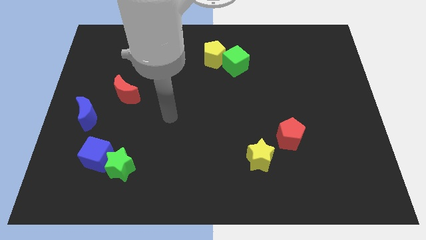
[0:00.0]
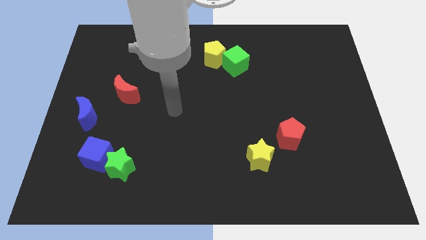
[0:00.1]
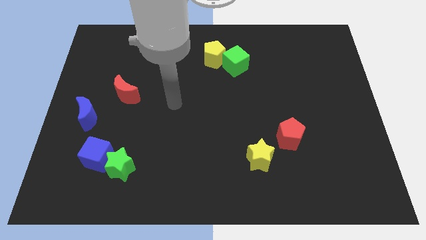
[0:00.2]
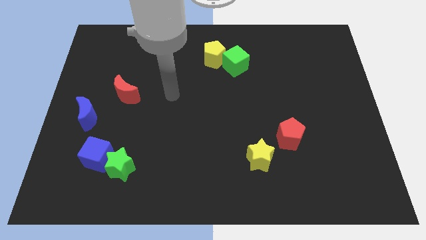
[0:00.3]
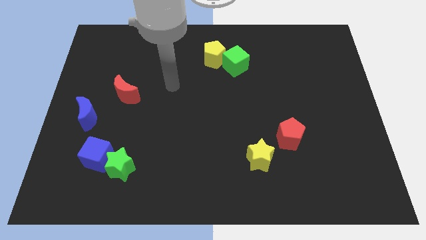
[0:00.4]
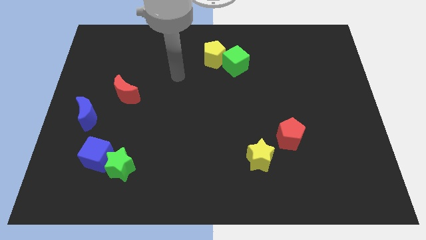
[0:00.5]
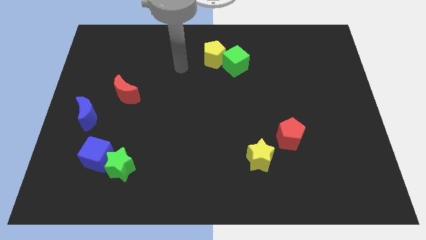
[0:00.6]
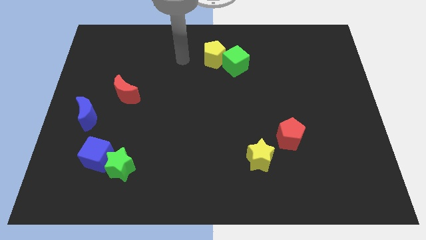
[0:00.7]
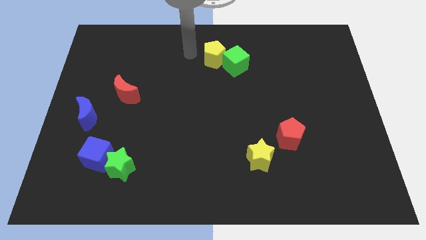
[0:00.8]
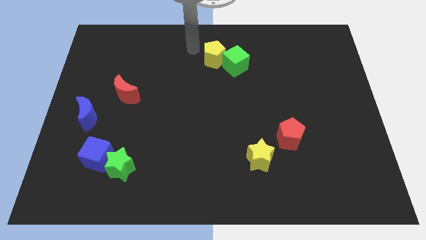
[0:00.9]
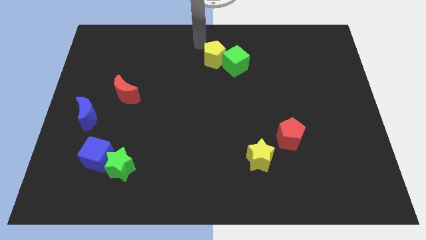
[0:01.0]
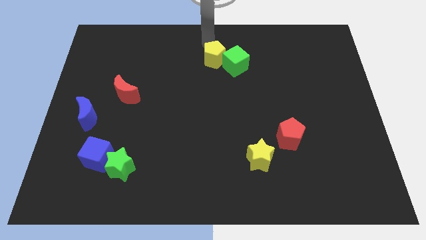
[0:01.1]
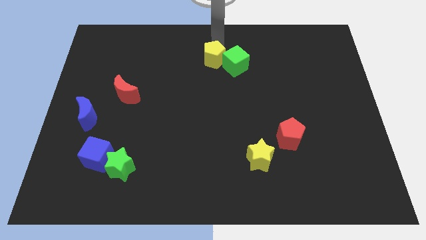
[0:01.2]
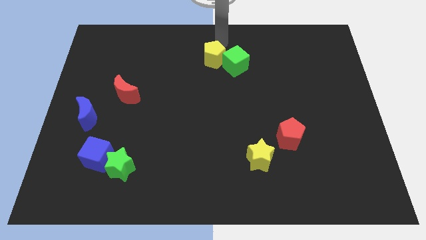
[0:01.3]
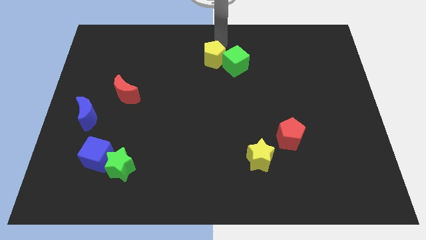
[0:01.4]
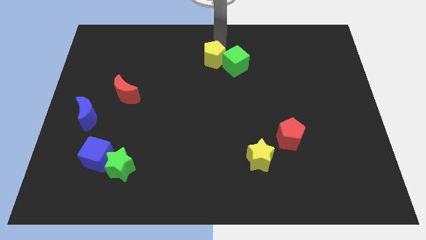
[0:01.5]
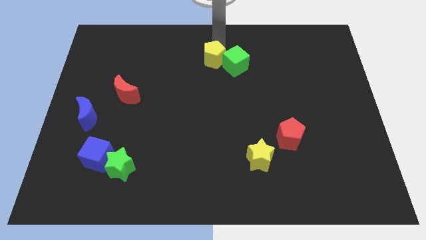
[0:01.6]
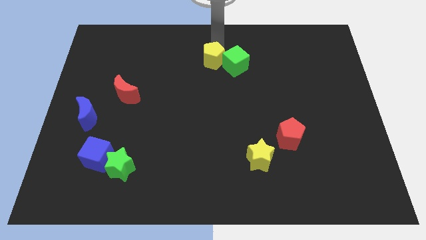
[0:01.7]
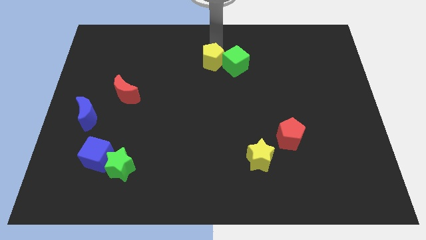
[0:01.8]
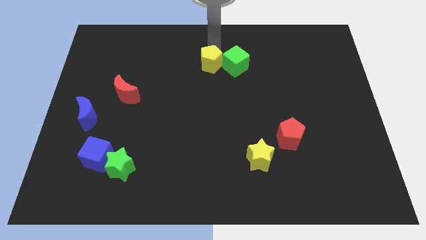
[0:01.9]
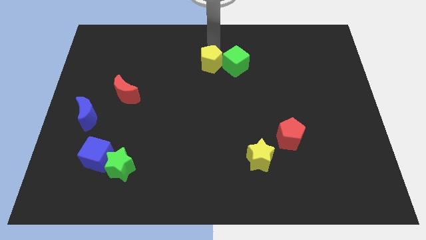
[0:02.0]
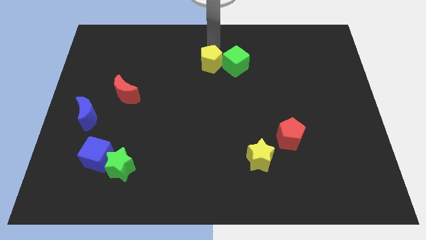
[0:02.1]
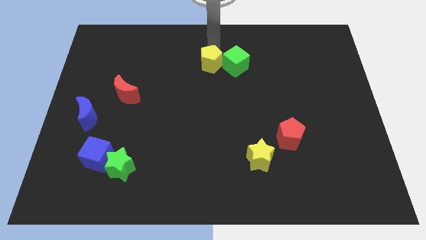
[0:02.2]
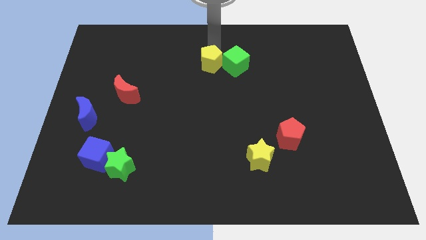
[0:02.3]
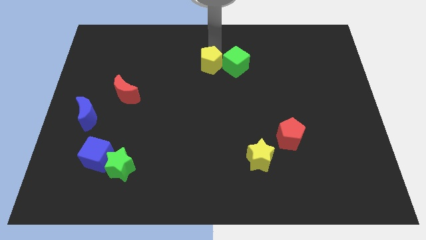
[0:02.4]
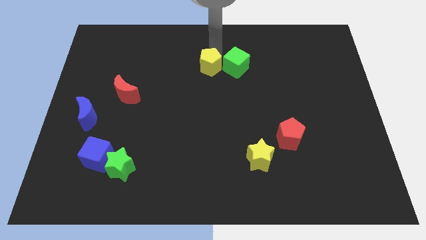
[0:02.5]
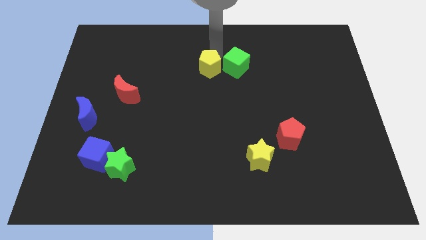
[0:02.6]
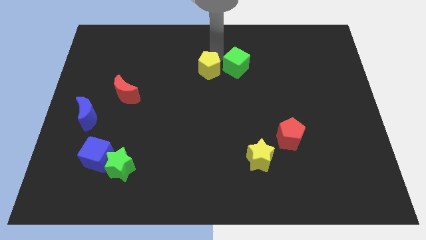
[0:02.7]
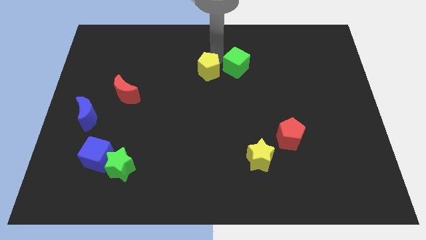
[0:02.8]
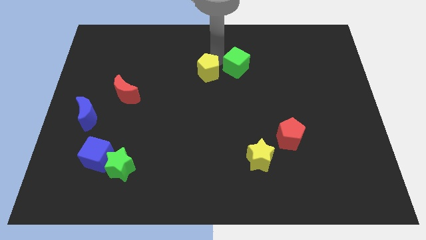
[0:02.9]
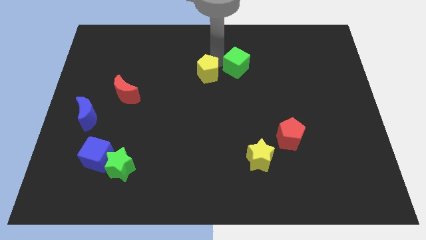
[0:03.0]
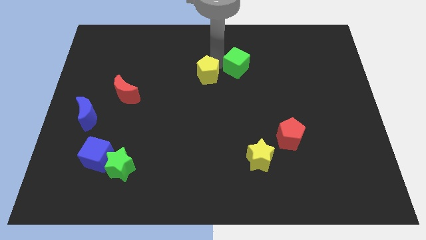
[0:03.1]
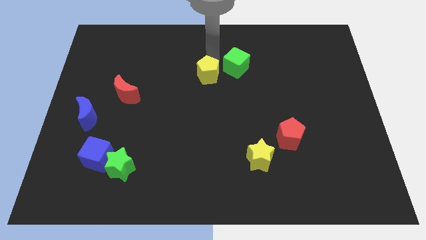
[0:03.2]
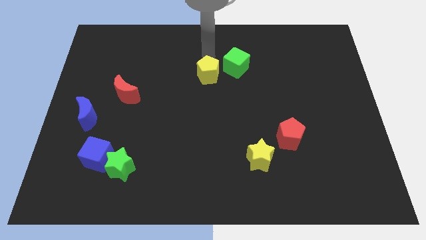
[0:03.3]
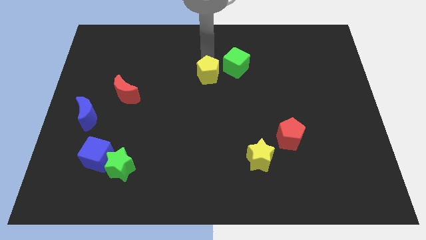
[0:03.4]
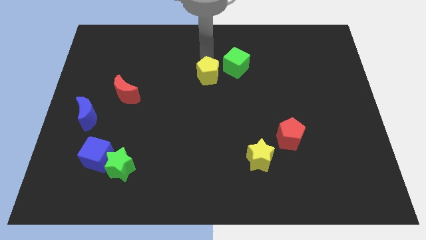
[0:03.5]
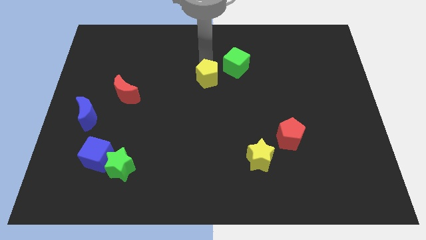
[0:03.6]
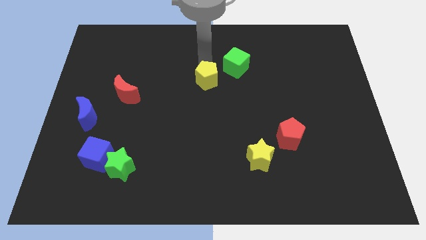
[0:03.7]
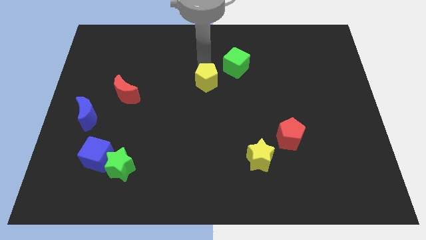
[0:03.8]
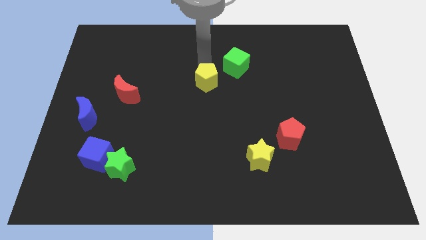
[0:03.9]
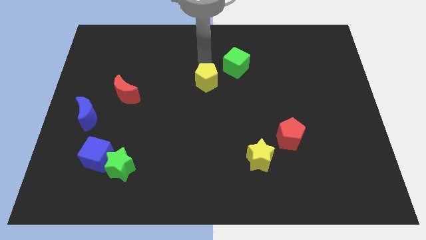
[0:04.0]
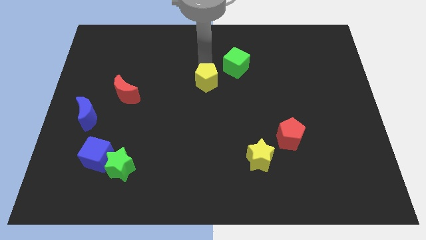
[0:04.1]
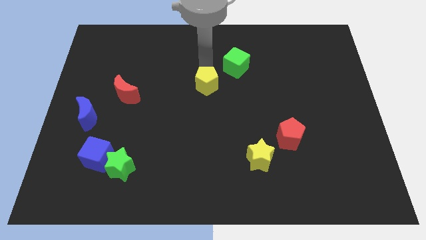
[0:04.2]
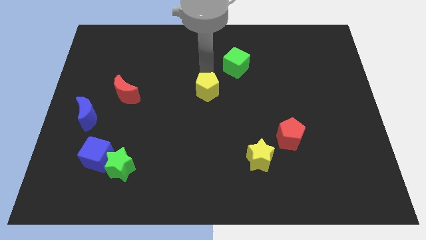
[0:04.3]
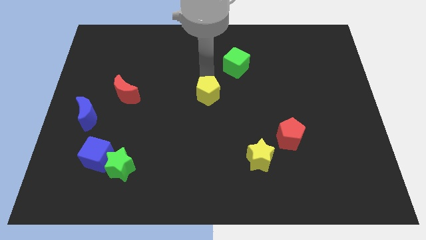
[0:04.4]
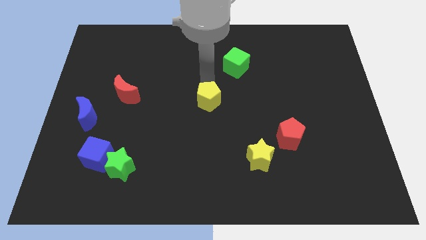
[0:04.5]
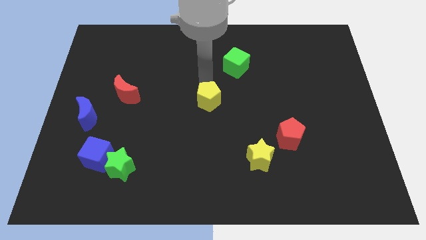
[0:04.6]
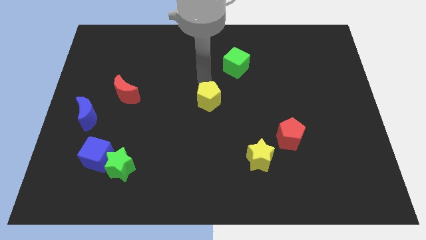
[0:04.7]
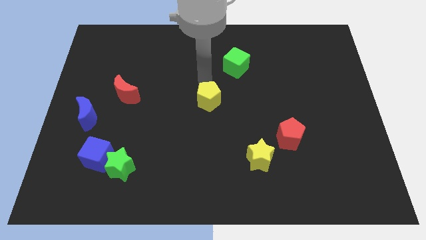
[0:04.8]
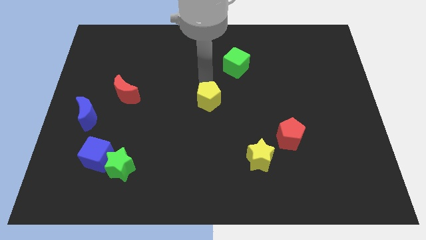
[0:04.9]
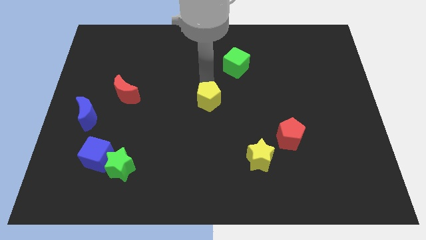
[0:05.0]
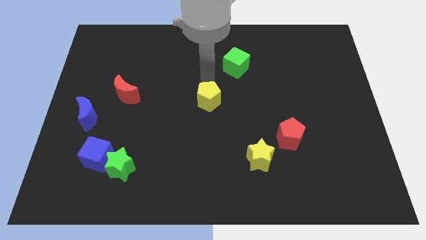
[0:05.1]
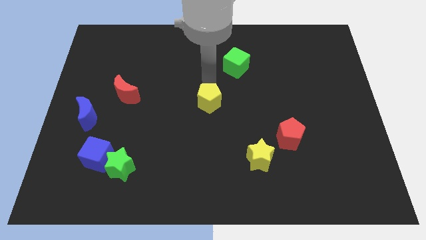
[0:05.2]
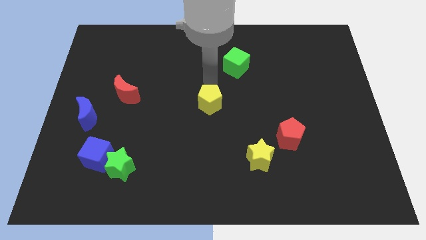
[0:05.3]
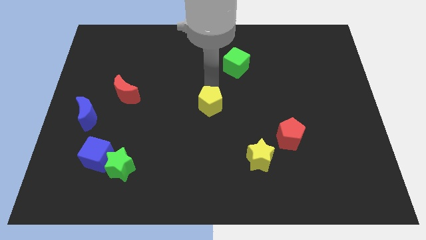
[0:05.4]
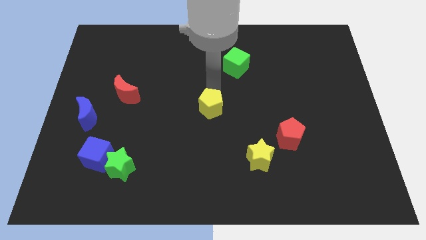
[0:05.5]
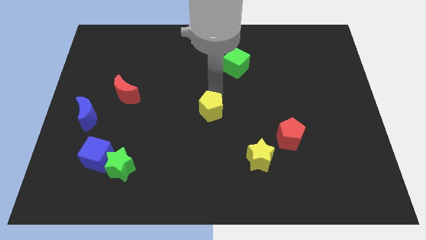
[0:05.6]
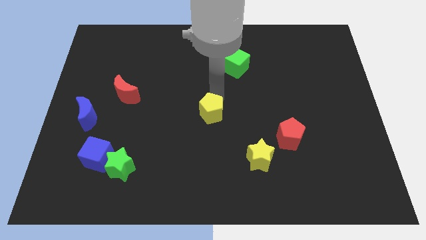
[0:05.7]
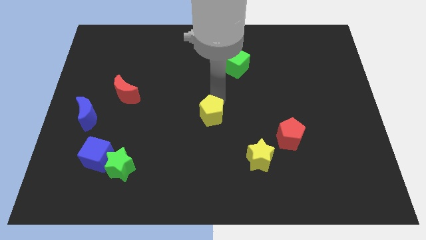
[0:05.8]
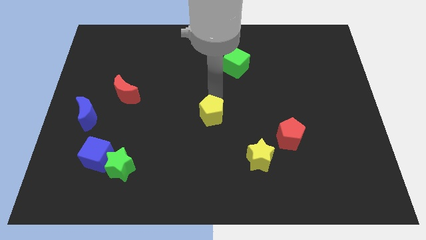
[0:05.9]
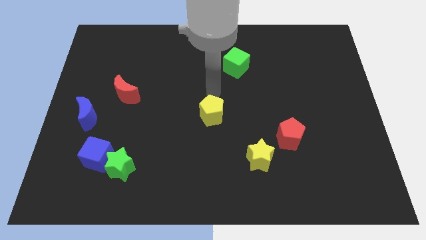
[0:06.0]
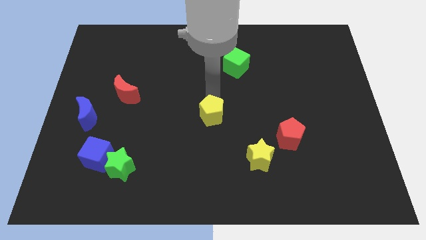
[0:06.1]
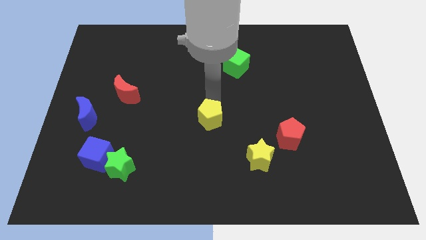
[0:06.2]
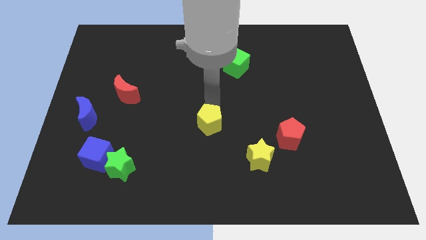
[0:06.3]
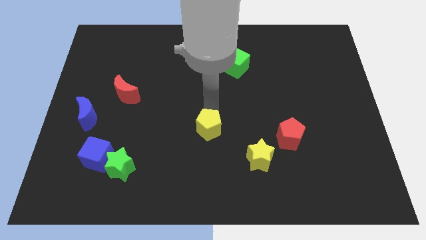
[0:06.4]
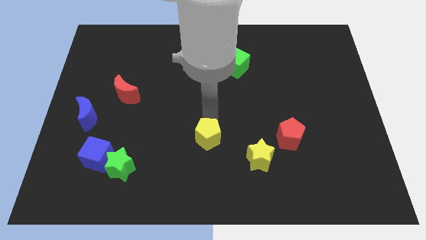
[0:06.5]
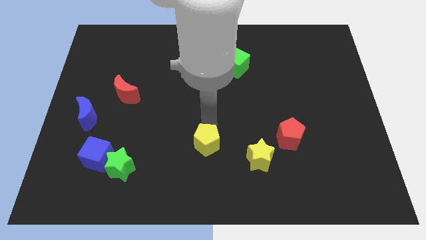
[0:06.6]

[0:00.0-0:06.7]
push the yellow pentagon to the left side of the yellow star
